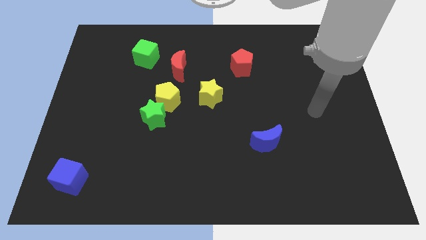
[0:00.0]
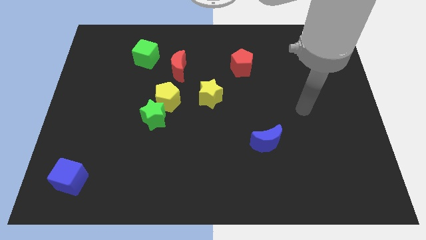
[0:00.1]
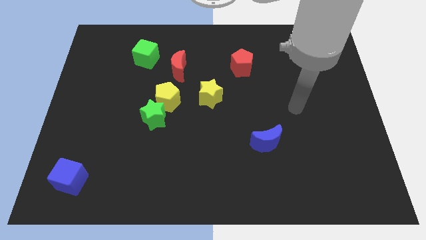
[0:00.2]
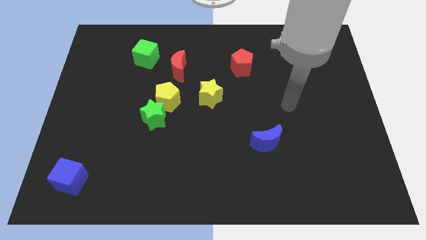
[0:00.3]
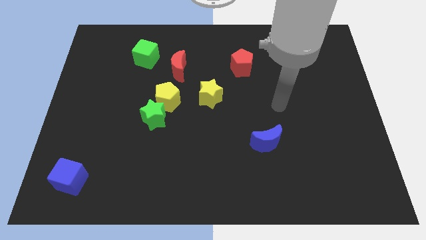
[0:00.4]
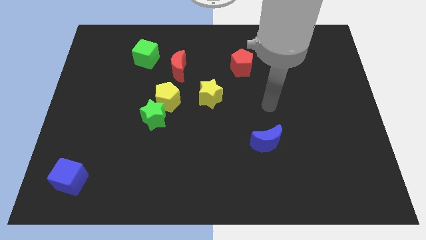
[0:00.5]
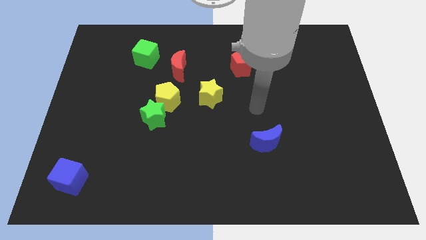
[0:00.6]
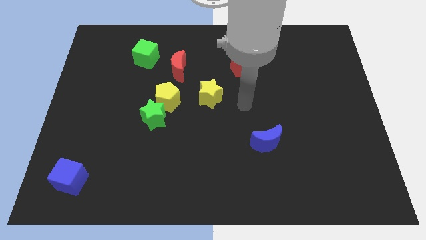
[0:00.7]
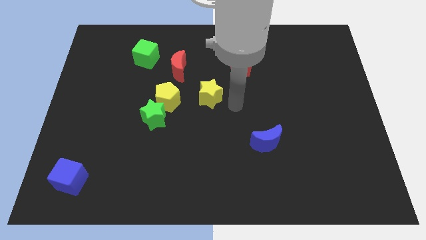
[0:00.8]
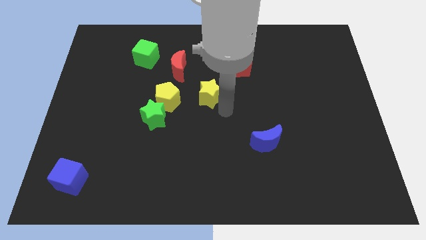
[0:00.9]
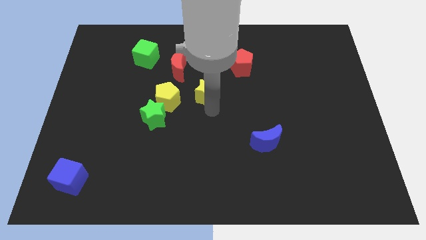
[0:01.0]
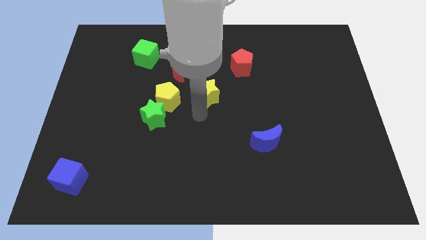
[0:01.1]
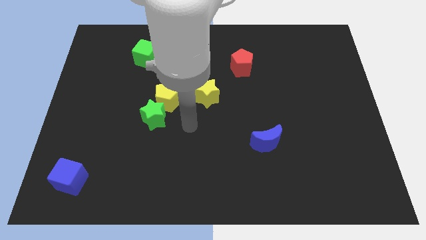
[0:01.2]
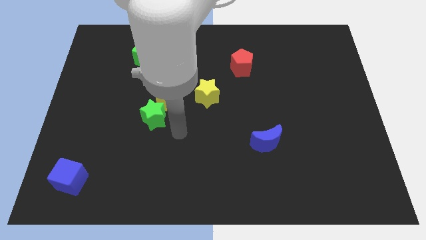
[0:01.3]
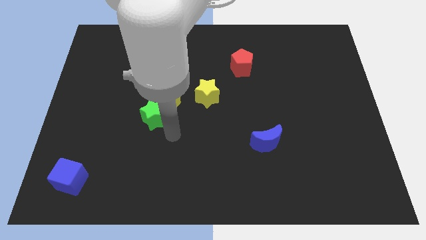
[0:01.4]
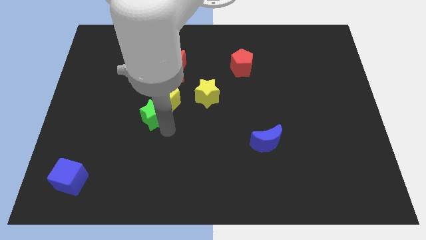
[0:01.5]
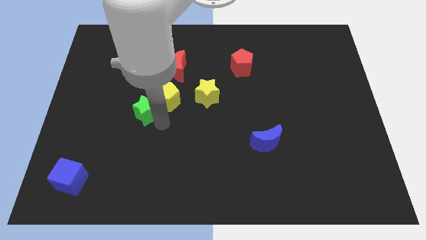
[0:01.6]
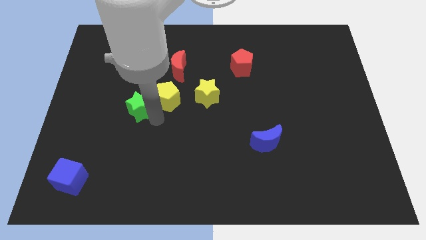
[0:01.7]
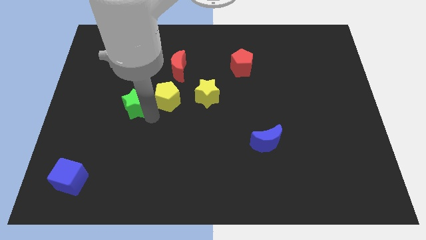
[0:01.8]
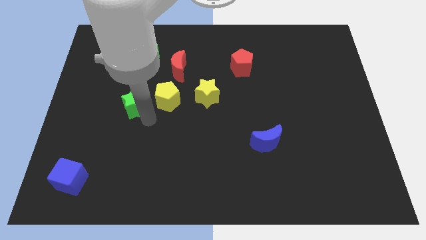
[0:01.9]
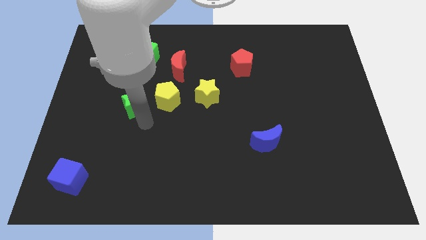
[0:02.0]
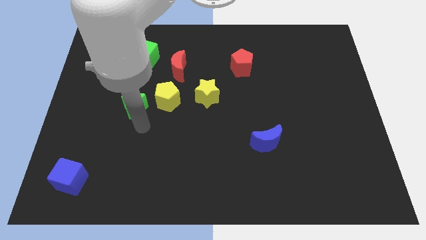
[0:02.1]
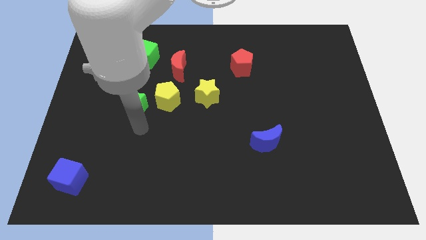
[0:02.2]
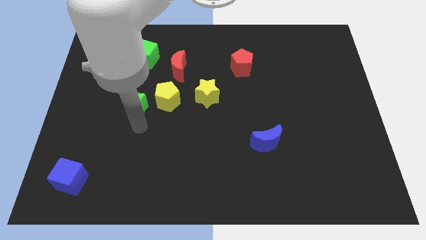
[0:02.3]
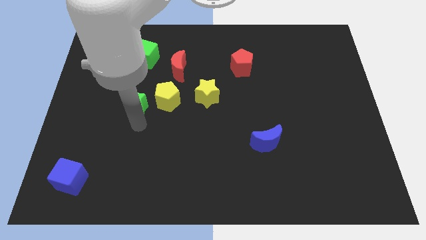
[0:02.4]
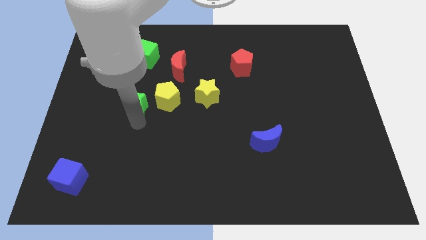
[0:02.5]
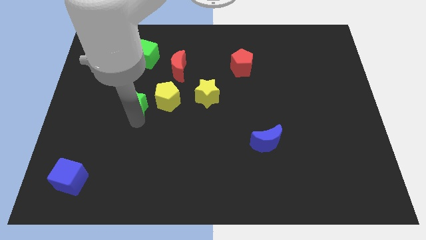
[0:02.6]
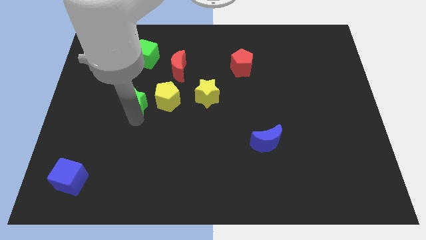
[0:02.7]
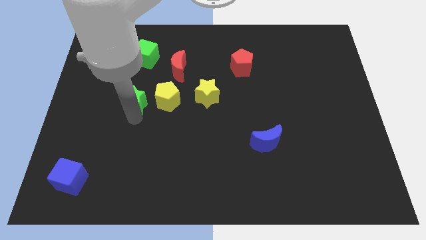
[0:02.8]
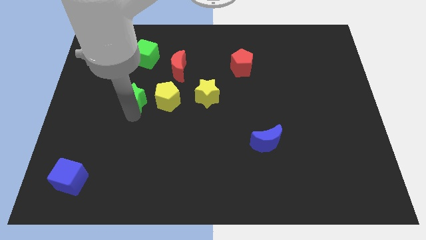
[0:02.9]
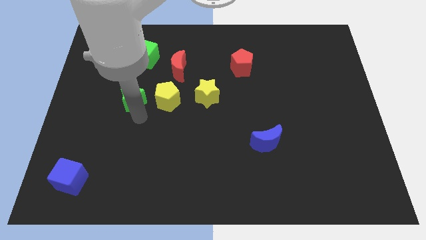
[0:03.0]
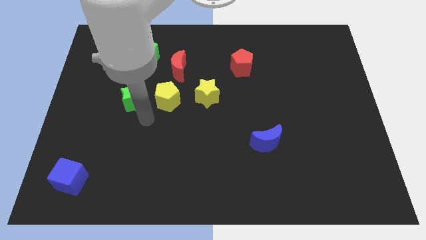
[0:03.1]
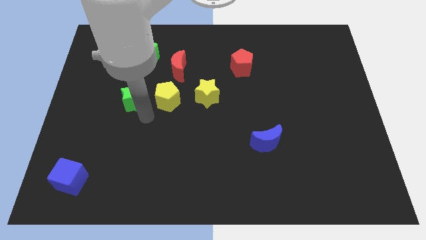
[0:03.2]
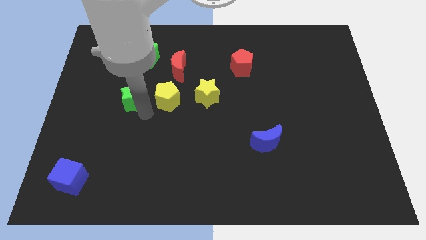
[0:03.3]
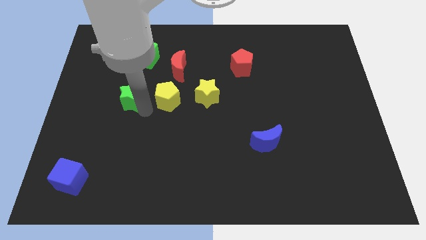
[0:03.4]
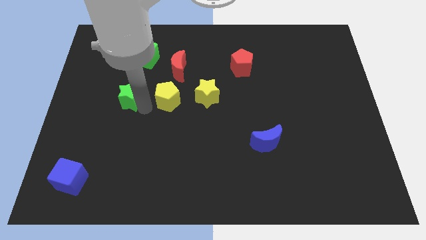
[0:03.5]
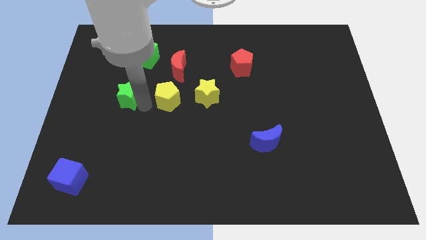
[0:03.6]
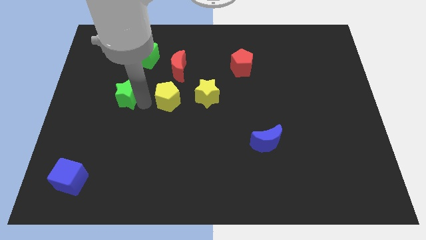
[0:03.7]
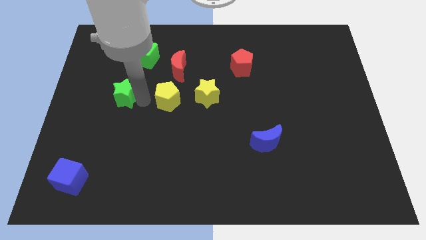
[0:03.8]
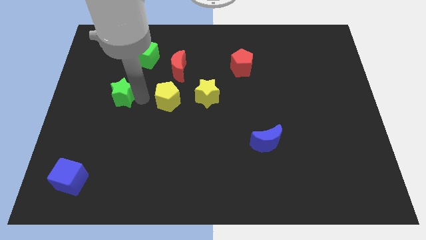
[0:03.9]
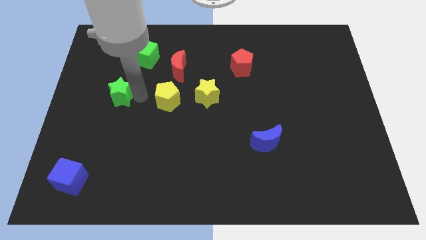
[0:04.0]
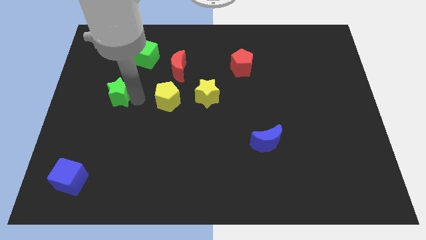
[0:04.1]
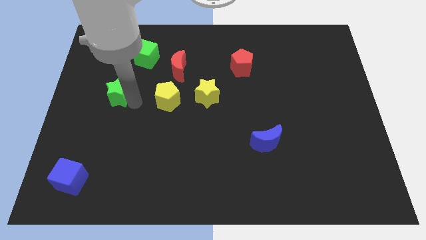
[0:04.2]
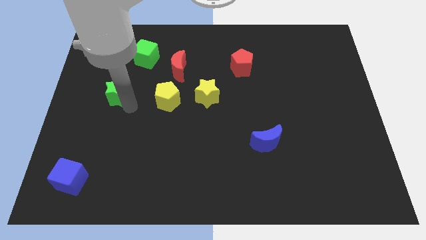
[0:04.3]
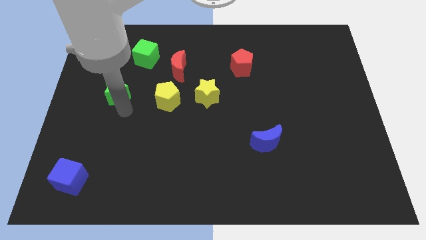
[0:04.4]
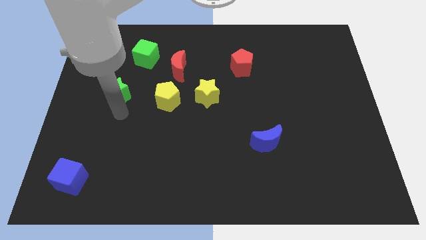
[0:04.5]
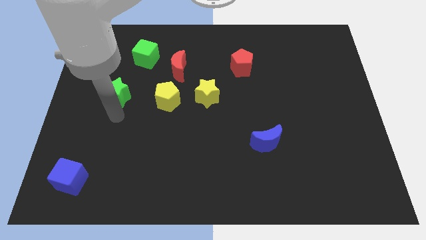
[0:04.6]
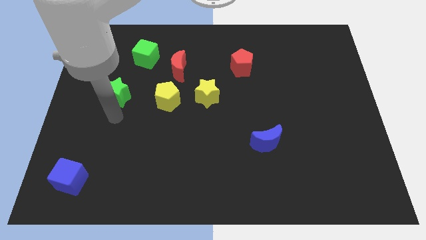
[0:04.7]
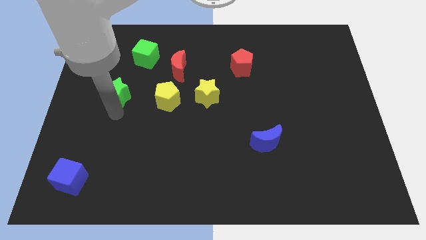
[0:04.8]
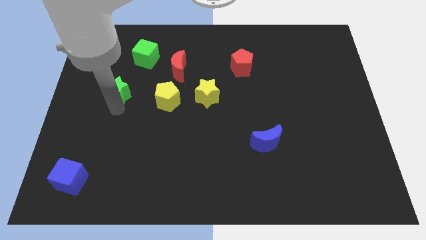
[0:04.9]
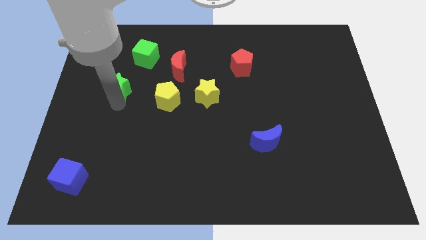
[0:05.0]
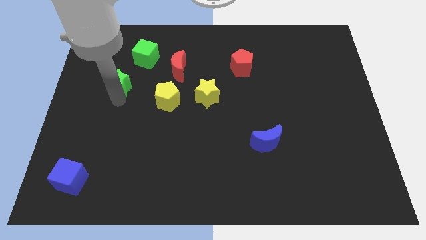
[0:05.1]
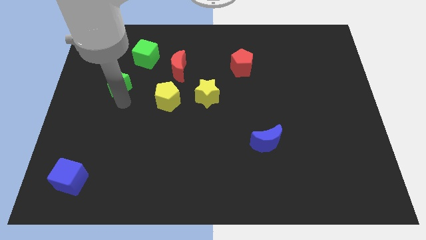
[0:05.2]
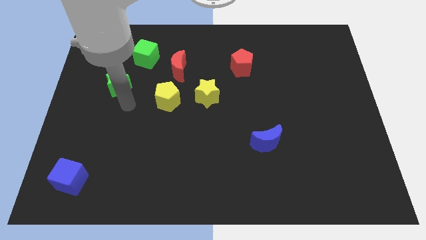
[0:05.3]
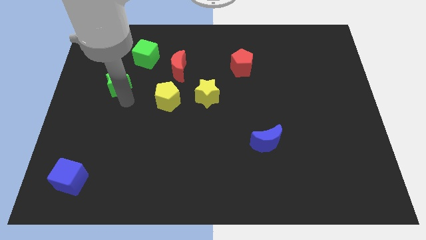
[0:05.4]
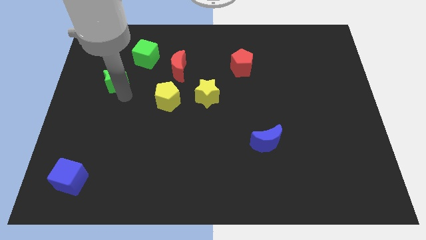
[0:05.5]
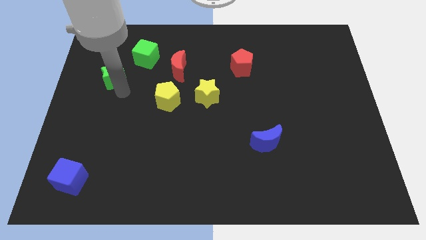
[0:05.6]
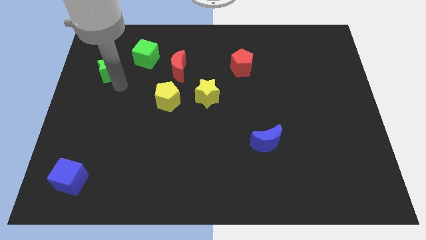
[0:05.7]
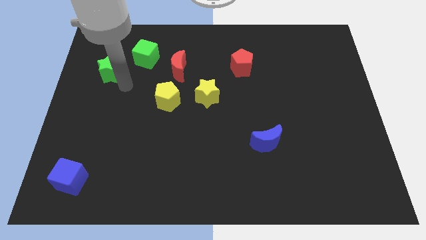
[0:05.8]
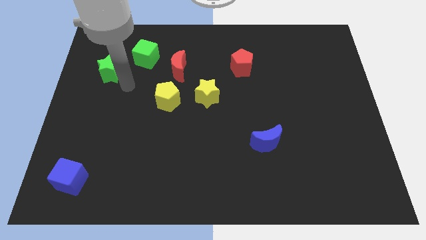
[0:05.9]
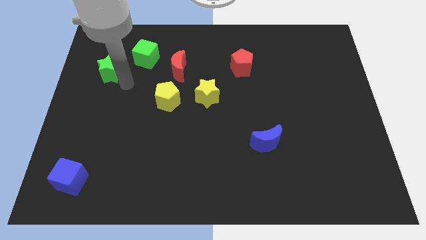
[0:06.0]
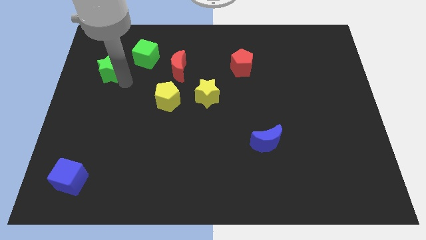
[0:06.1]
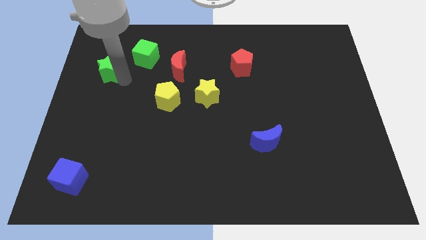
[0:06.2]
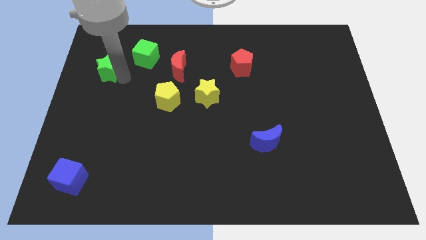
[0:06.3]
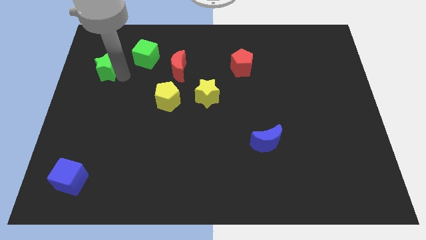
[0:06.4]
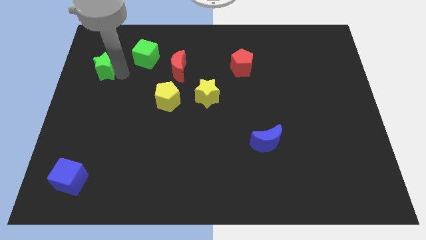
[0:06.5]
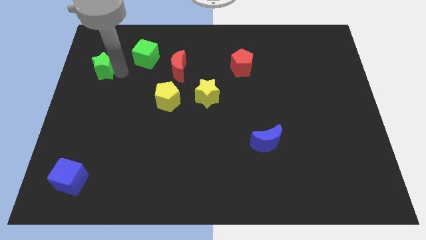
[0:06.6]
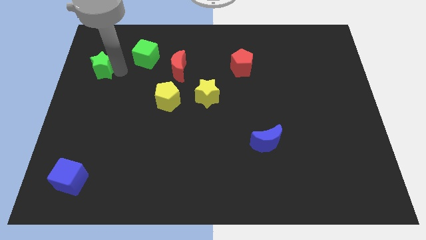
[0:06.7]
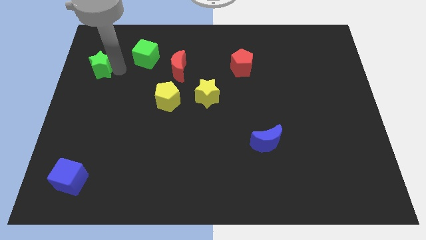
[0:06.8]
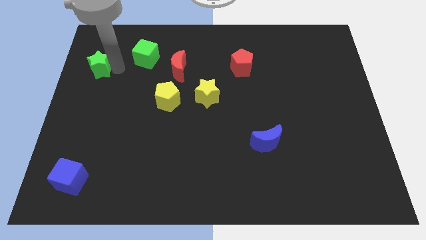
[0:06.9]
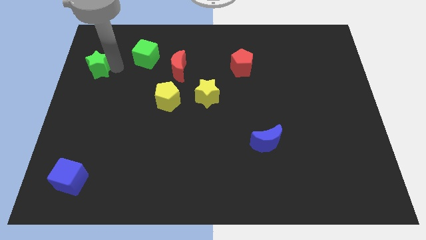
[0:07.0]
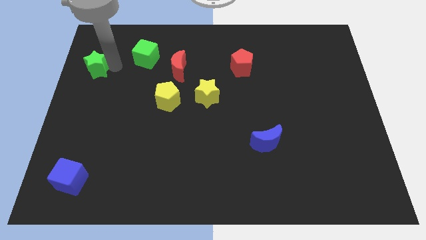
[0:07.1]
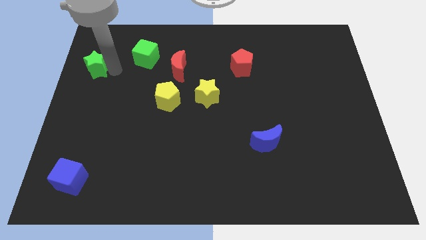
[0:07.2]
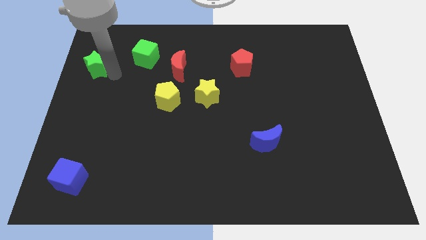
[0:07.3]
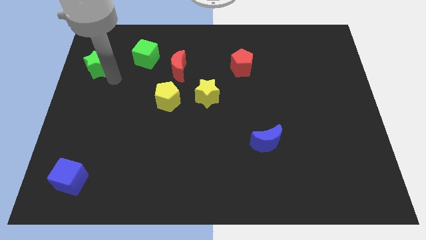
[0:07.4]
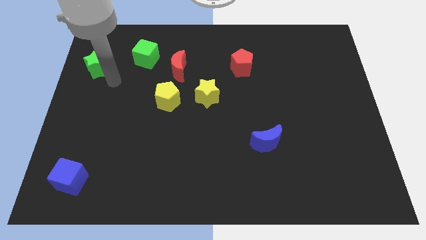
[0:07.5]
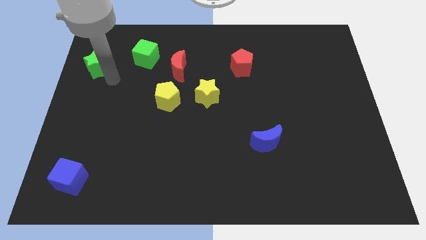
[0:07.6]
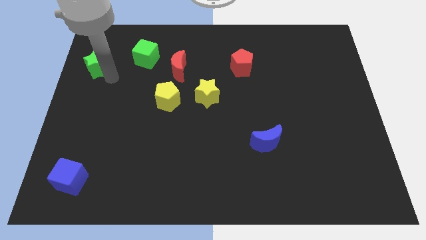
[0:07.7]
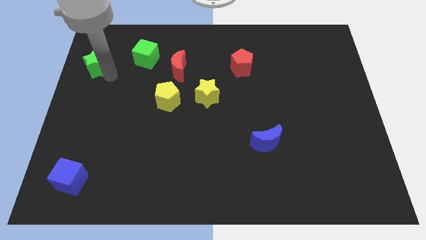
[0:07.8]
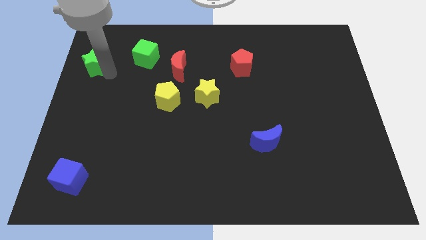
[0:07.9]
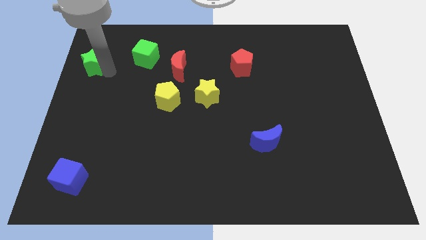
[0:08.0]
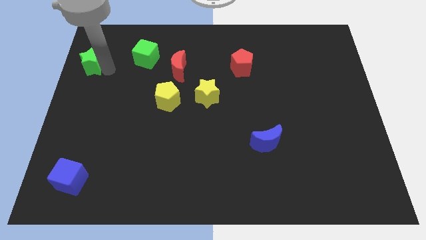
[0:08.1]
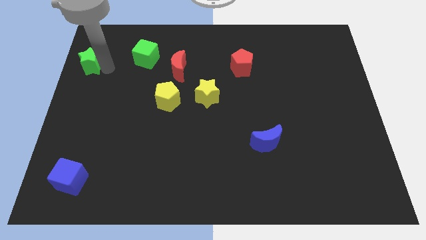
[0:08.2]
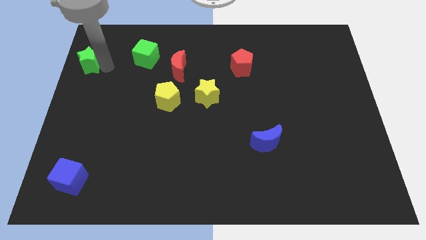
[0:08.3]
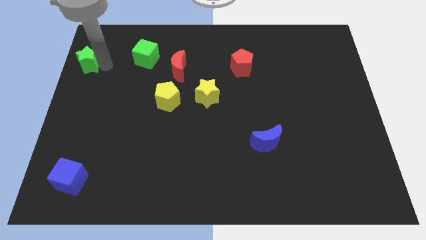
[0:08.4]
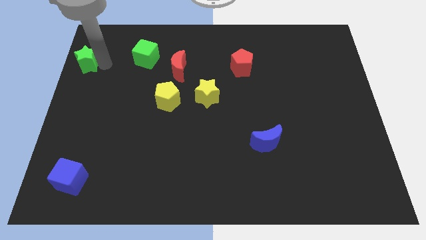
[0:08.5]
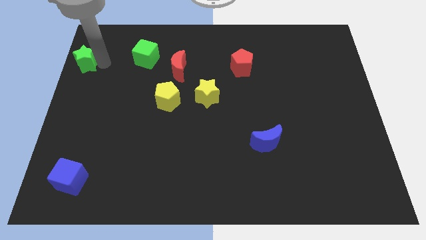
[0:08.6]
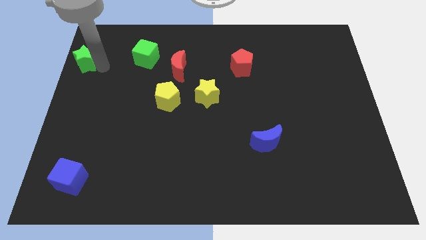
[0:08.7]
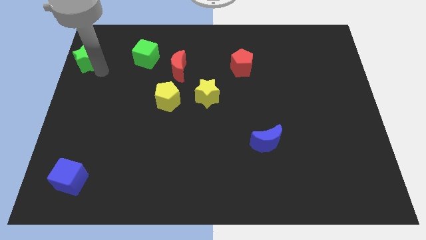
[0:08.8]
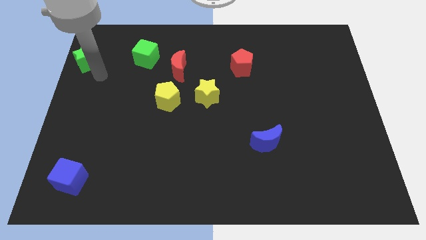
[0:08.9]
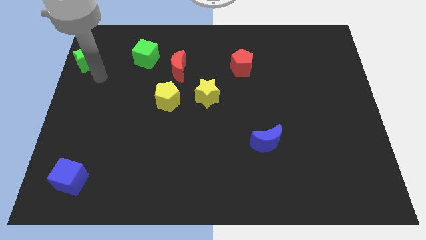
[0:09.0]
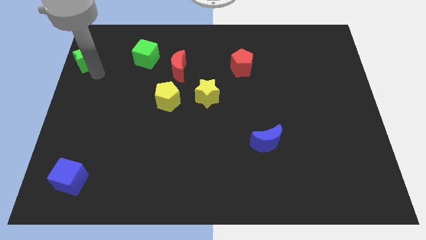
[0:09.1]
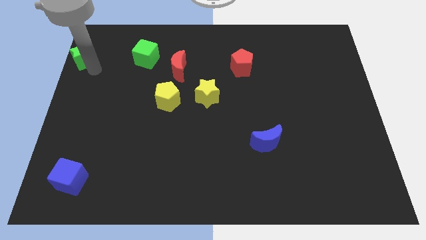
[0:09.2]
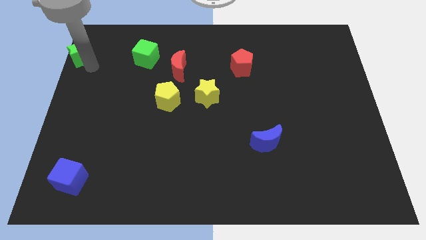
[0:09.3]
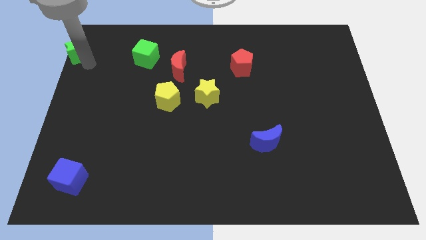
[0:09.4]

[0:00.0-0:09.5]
slide the green star to the top left corner
